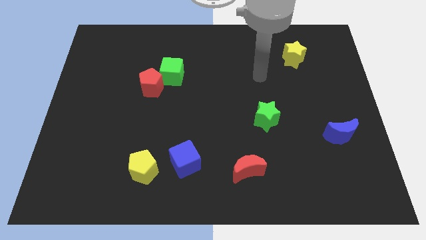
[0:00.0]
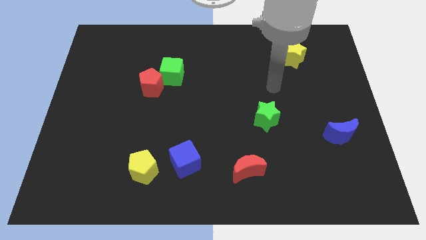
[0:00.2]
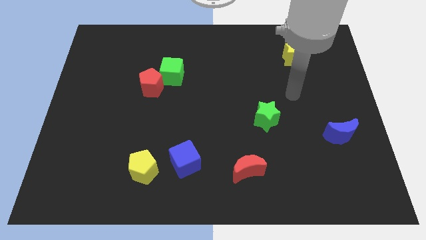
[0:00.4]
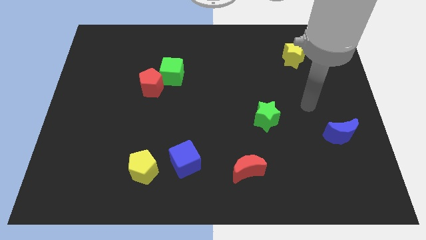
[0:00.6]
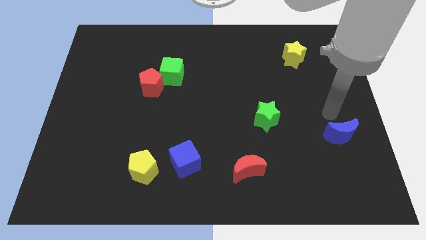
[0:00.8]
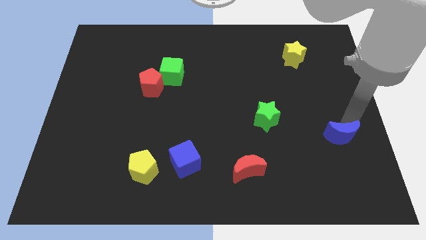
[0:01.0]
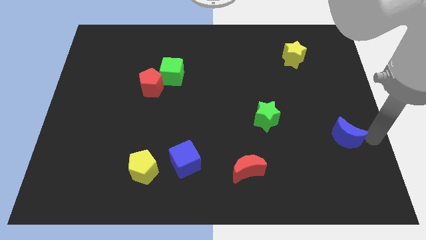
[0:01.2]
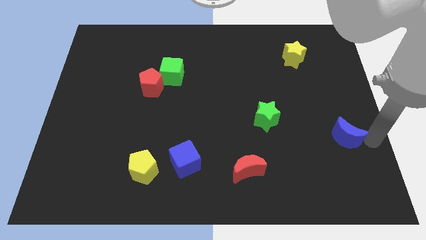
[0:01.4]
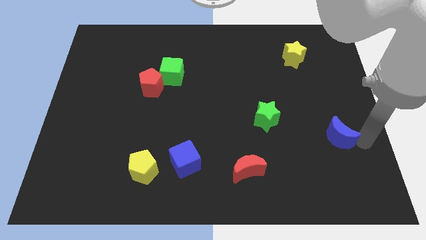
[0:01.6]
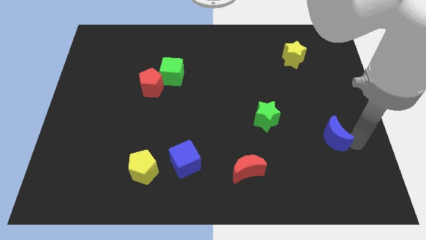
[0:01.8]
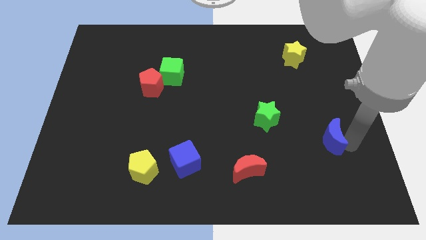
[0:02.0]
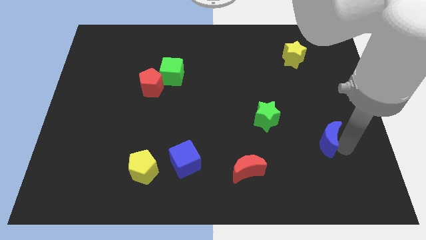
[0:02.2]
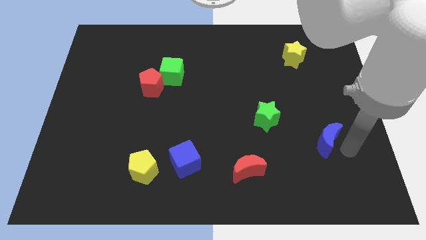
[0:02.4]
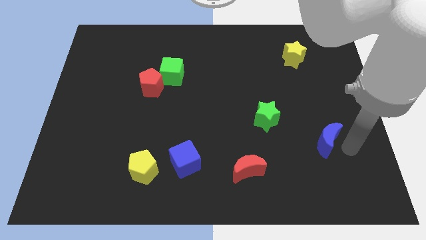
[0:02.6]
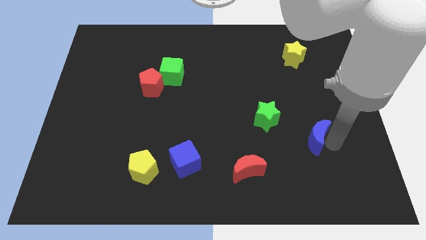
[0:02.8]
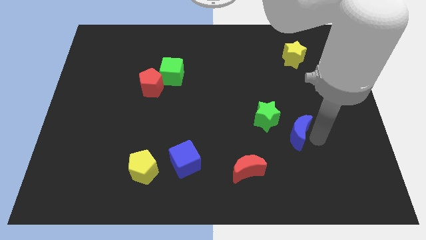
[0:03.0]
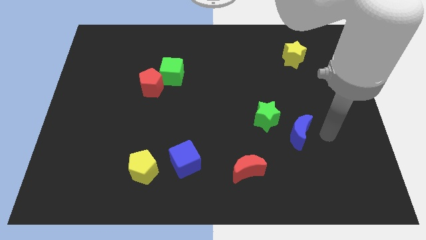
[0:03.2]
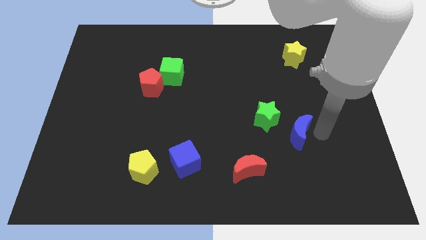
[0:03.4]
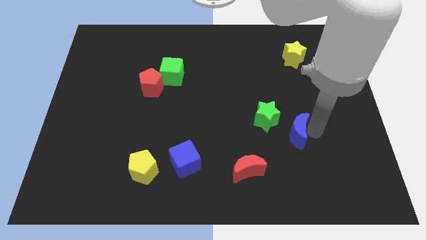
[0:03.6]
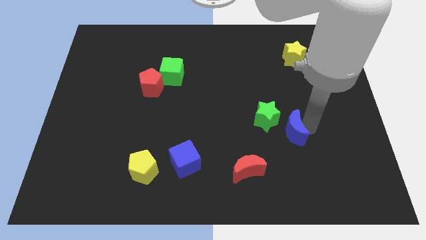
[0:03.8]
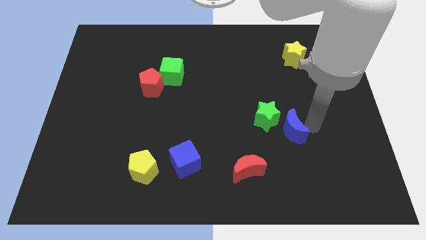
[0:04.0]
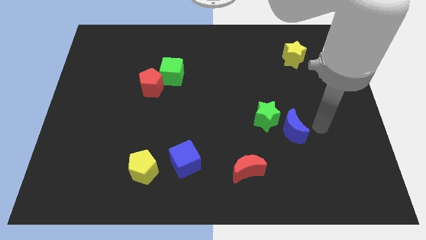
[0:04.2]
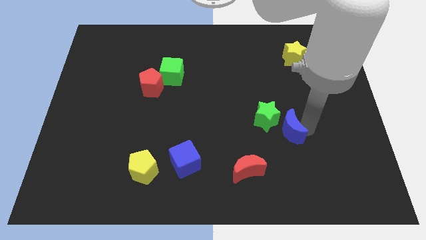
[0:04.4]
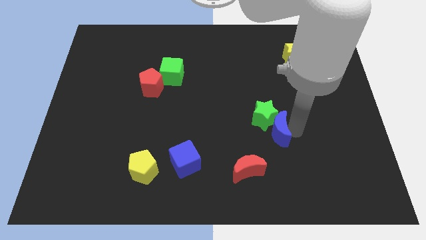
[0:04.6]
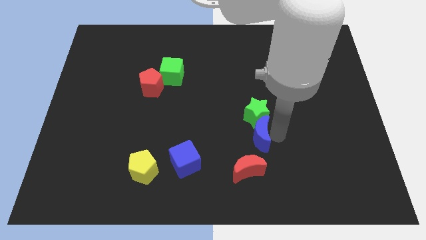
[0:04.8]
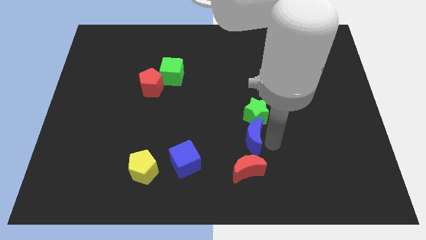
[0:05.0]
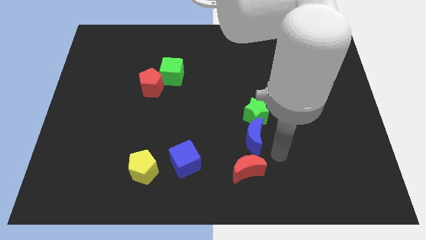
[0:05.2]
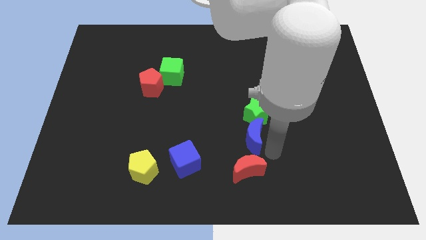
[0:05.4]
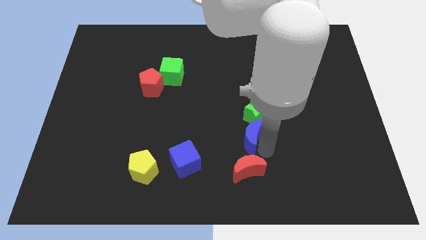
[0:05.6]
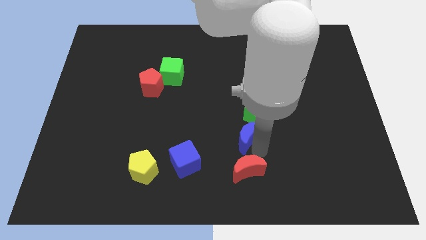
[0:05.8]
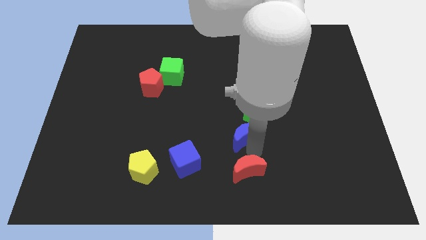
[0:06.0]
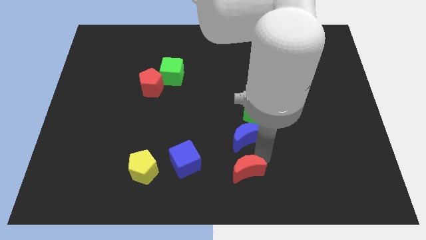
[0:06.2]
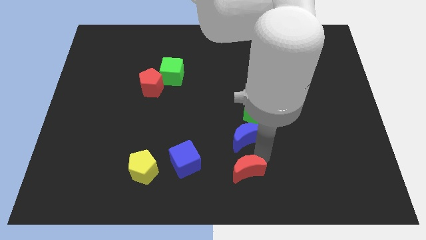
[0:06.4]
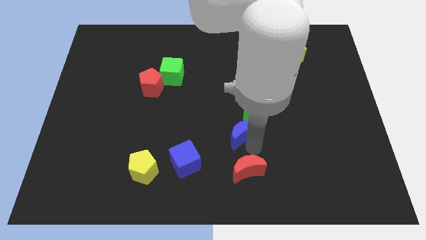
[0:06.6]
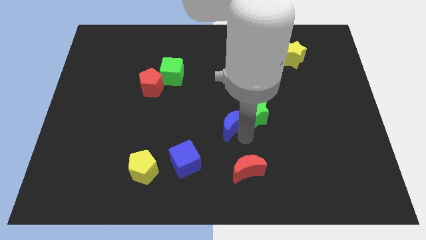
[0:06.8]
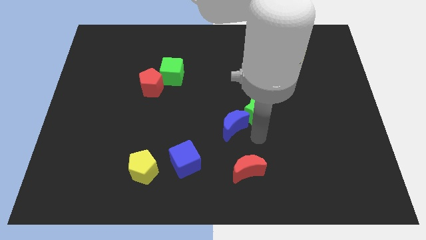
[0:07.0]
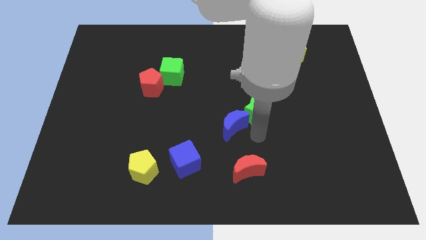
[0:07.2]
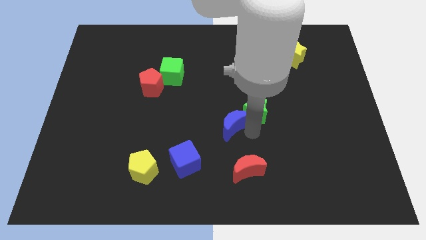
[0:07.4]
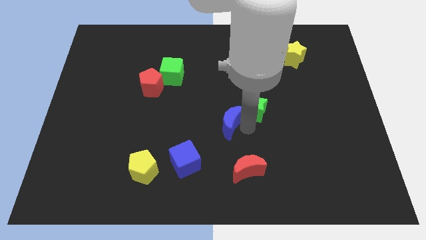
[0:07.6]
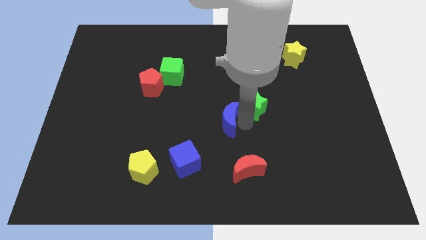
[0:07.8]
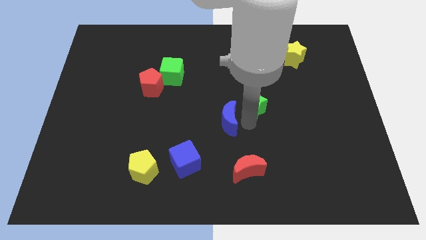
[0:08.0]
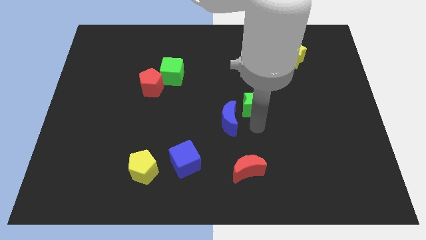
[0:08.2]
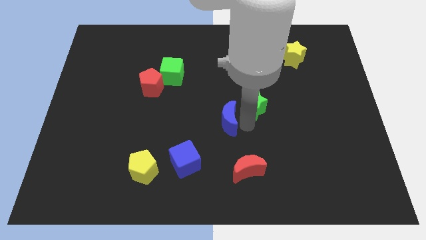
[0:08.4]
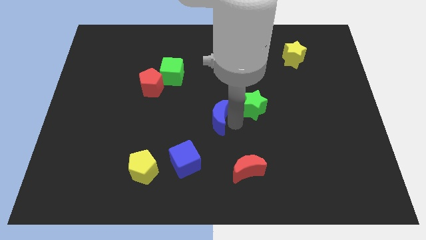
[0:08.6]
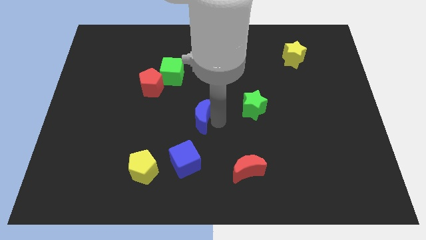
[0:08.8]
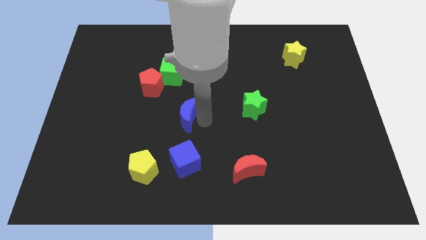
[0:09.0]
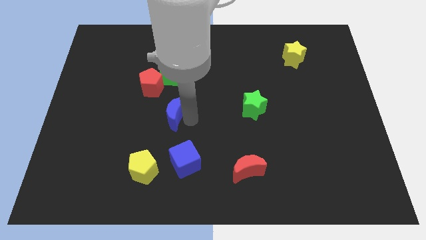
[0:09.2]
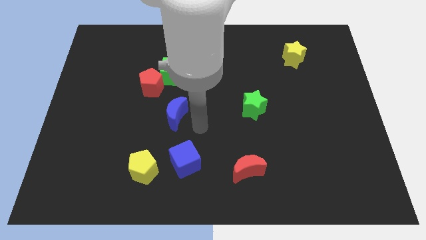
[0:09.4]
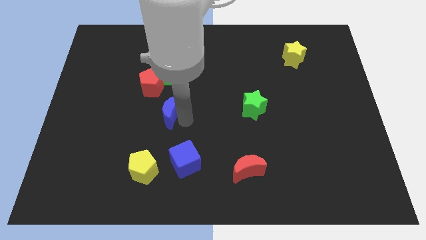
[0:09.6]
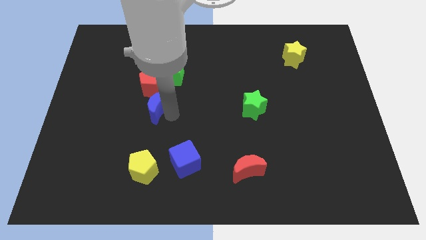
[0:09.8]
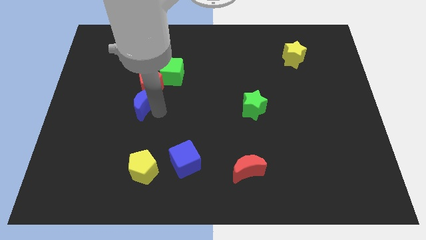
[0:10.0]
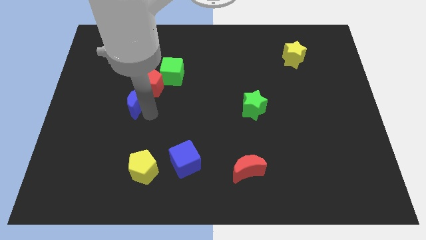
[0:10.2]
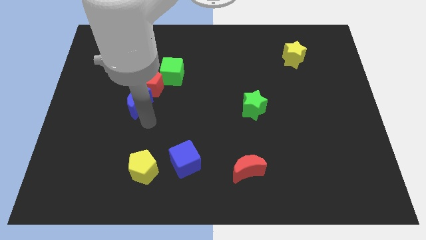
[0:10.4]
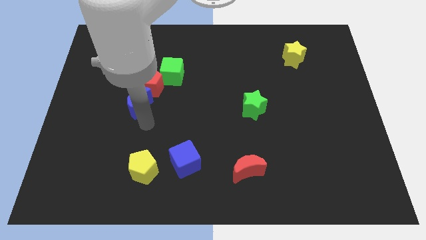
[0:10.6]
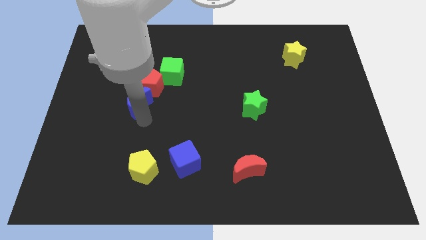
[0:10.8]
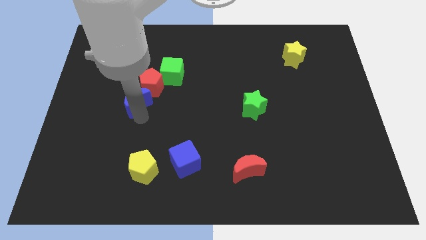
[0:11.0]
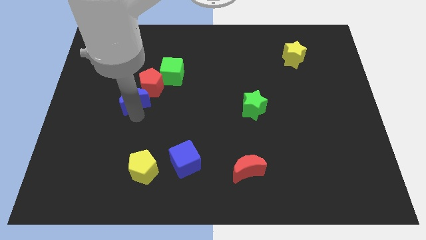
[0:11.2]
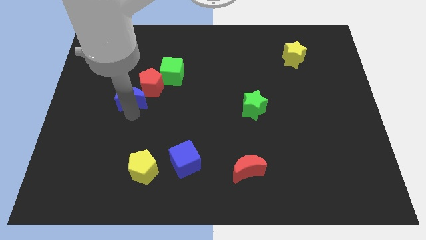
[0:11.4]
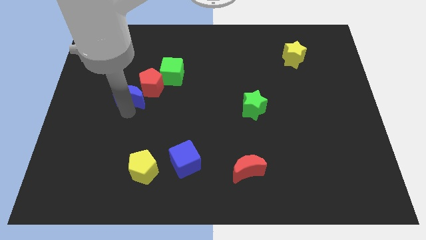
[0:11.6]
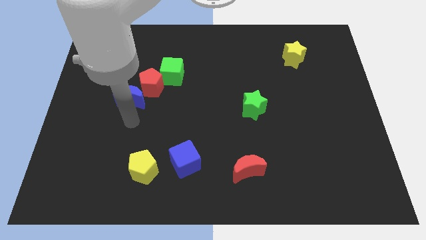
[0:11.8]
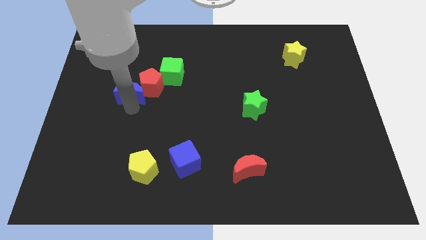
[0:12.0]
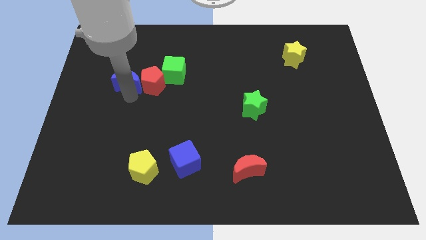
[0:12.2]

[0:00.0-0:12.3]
slide the blue moon to the left side of the green cube
